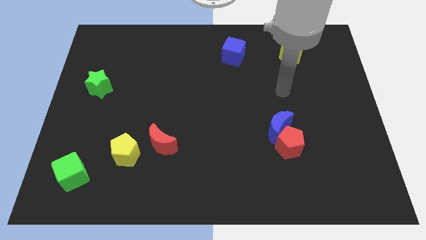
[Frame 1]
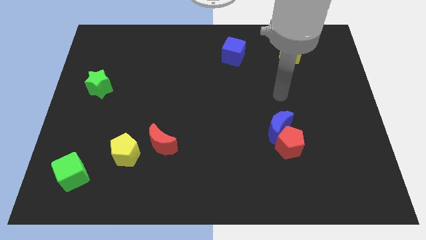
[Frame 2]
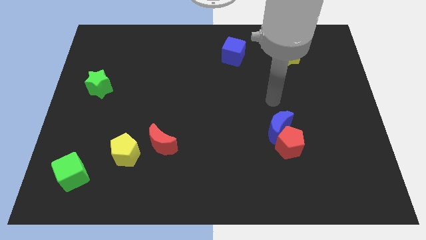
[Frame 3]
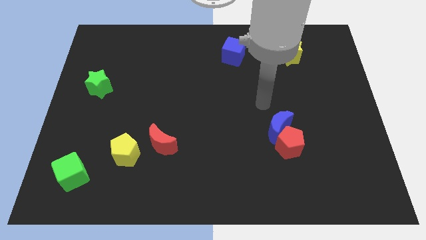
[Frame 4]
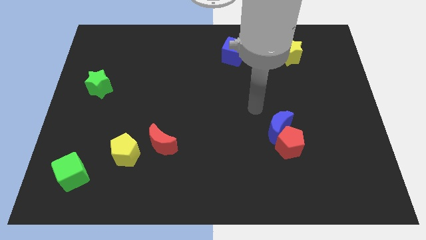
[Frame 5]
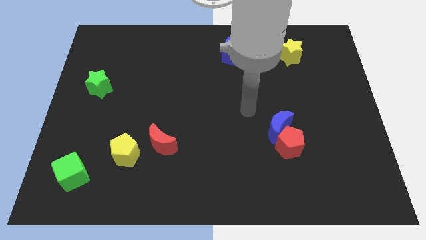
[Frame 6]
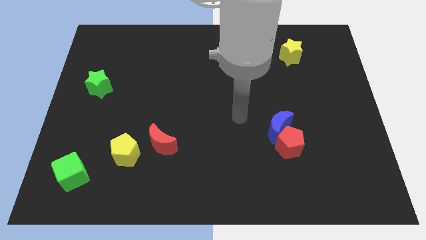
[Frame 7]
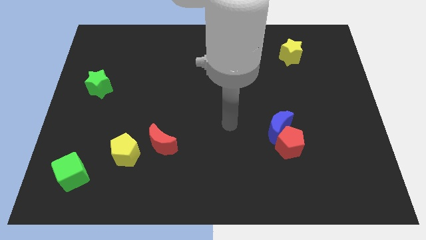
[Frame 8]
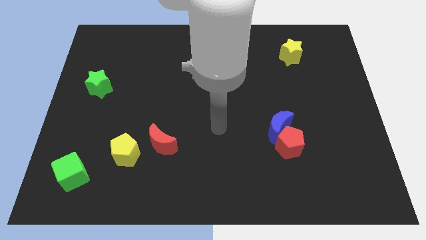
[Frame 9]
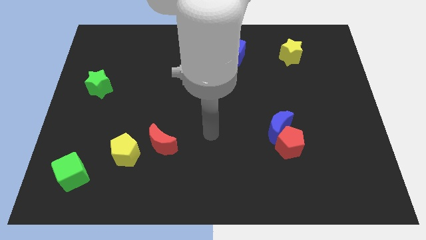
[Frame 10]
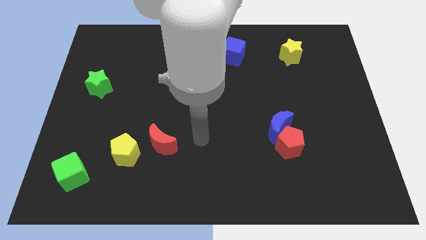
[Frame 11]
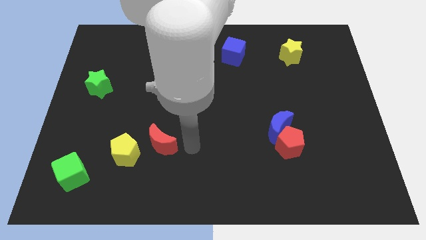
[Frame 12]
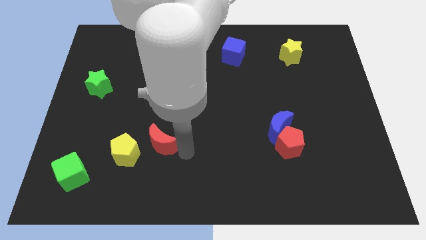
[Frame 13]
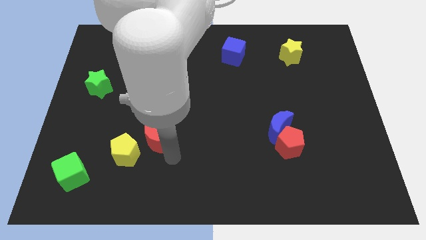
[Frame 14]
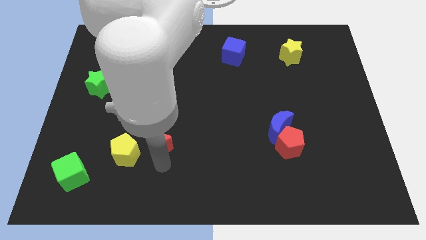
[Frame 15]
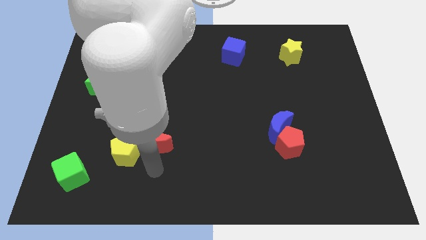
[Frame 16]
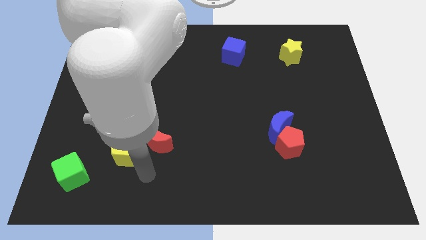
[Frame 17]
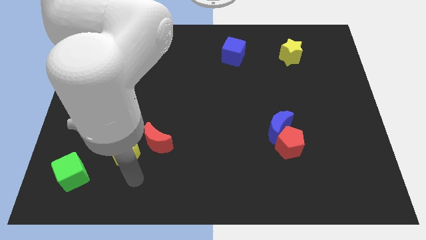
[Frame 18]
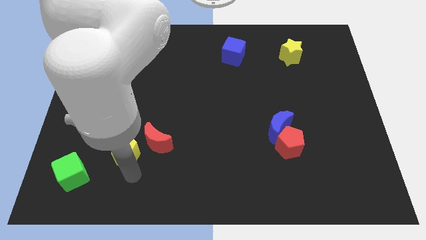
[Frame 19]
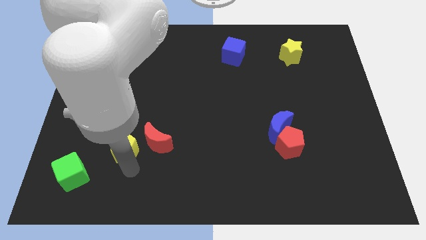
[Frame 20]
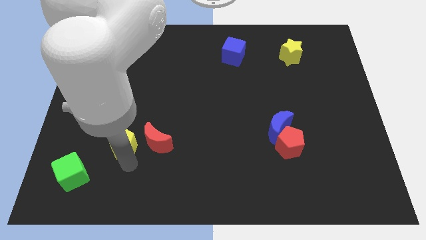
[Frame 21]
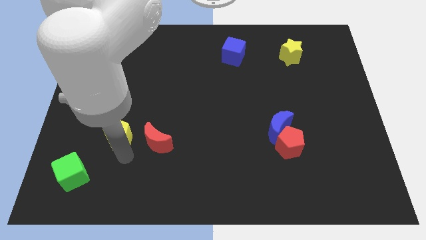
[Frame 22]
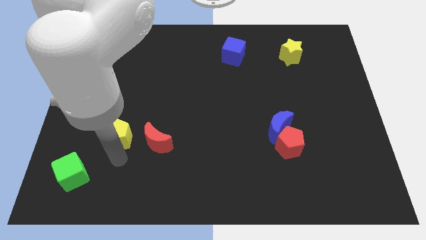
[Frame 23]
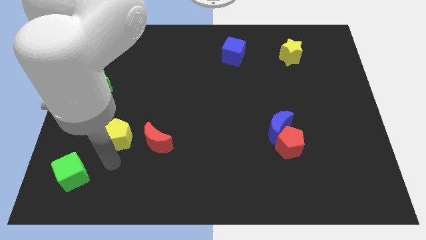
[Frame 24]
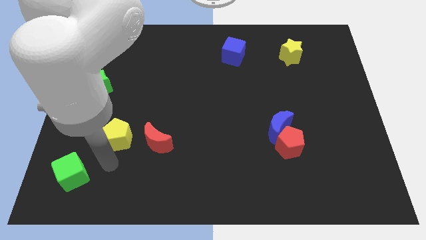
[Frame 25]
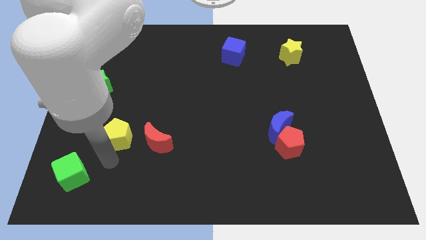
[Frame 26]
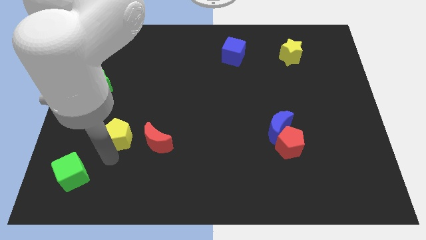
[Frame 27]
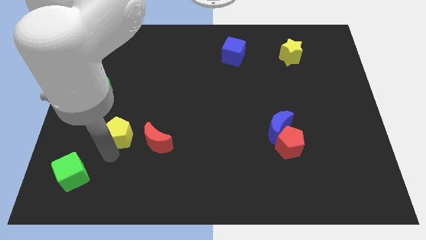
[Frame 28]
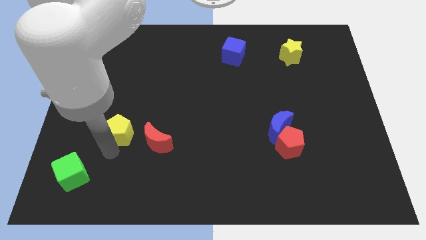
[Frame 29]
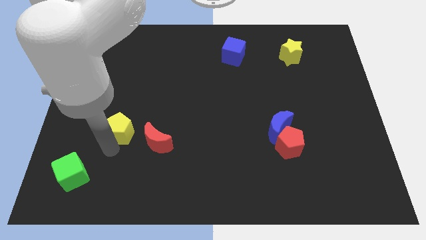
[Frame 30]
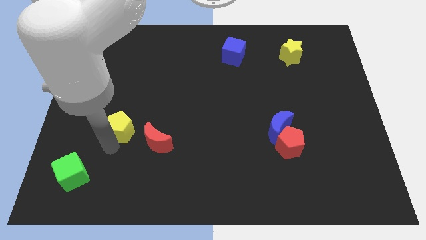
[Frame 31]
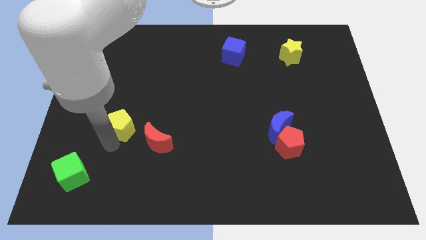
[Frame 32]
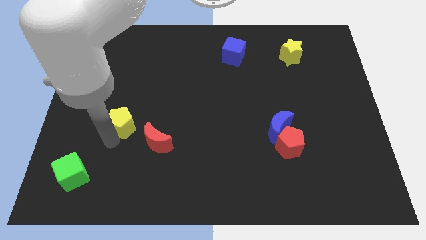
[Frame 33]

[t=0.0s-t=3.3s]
slide the yellow pentagon up slightly

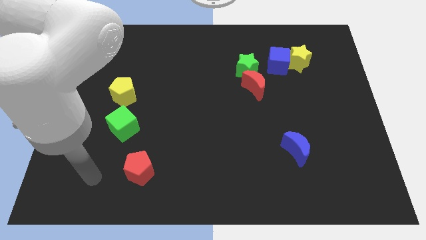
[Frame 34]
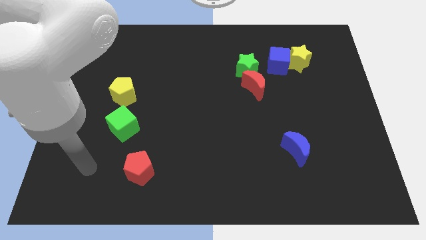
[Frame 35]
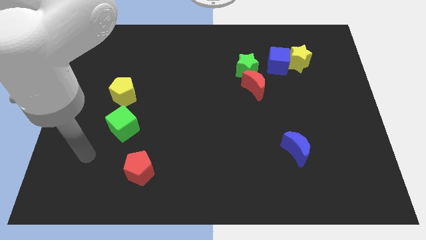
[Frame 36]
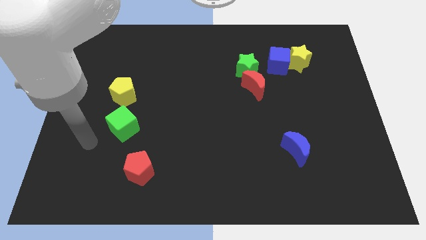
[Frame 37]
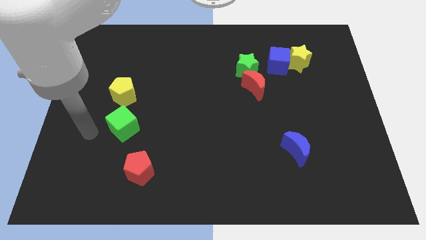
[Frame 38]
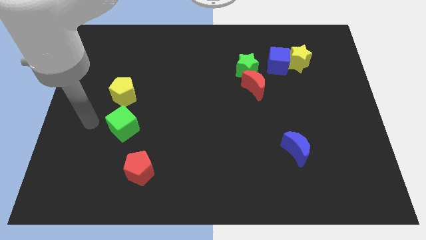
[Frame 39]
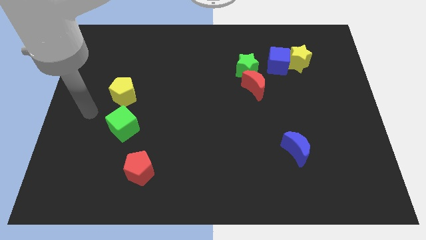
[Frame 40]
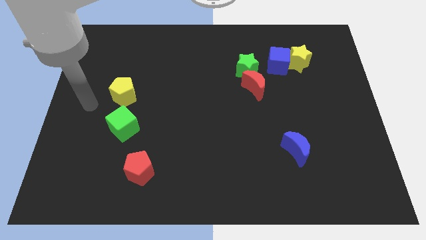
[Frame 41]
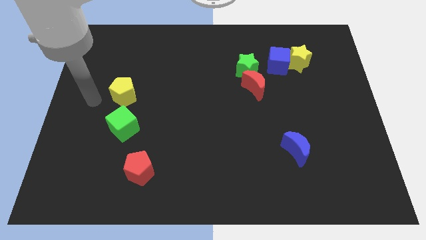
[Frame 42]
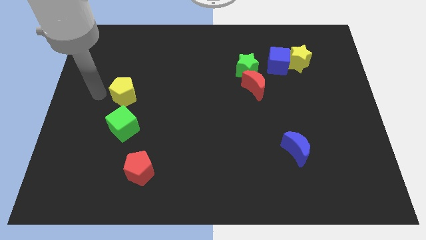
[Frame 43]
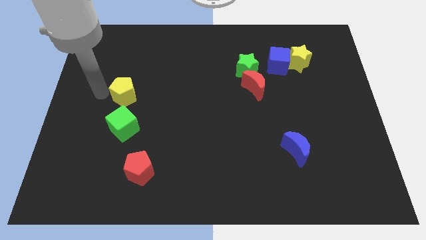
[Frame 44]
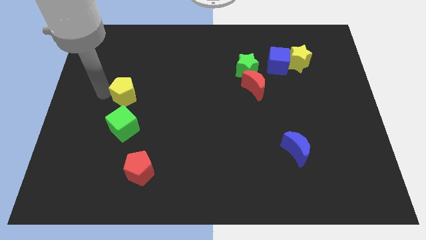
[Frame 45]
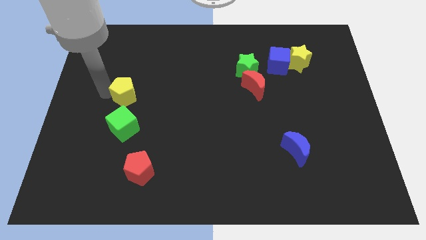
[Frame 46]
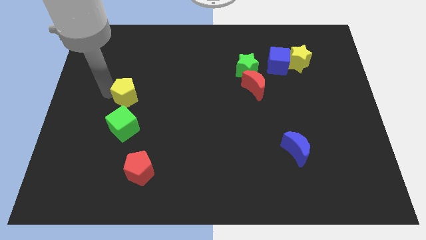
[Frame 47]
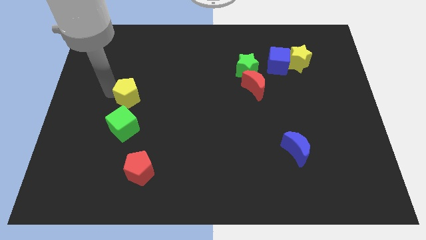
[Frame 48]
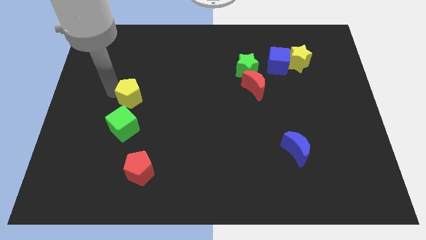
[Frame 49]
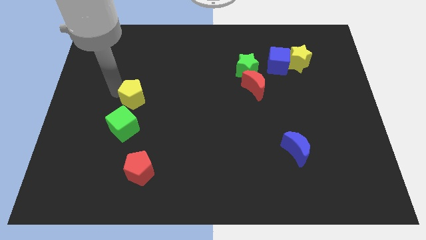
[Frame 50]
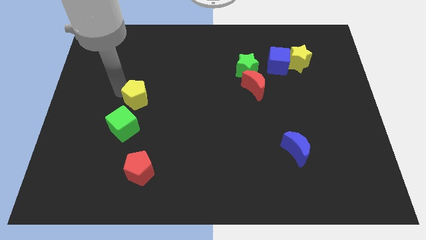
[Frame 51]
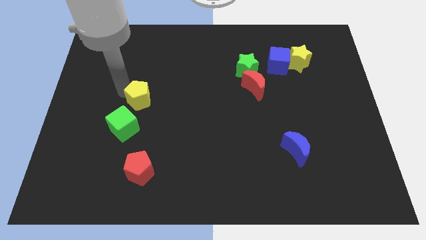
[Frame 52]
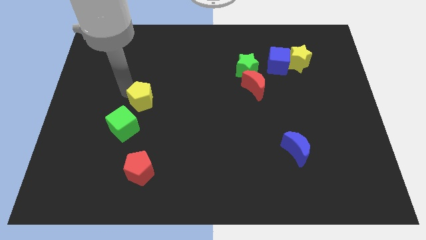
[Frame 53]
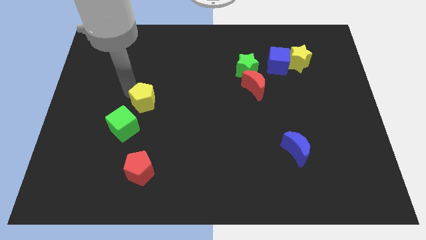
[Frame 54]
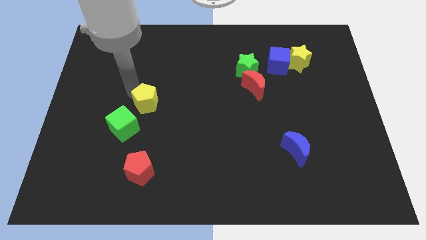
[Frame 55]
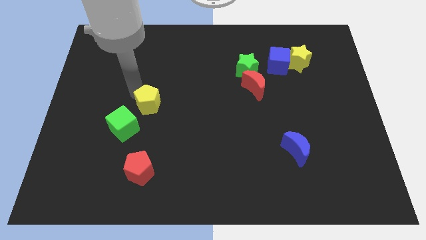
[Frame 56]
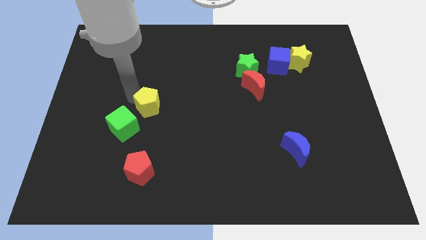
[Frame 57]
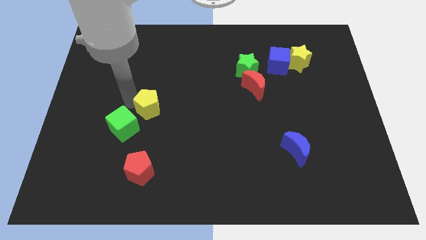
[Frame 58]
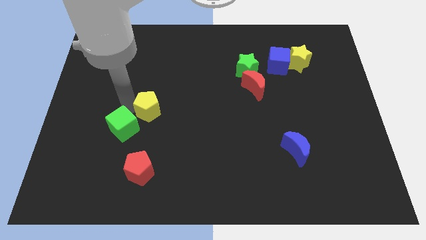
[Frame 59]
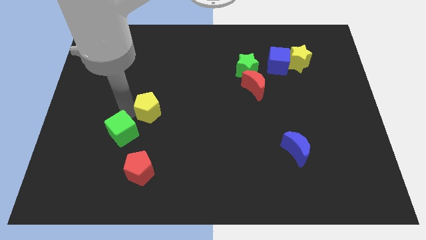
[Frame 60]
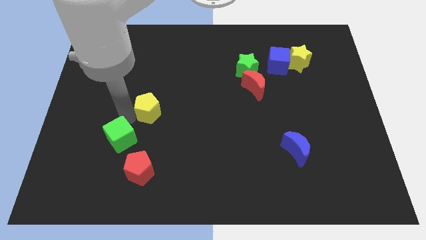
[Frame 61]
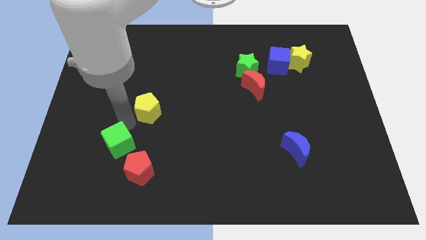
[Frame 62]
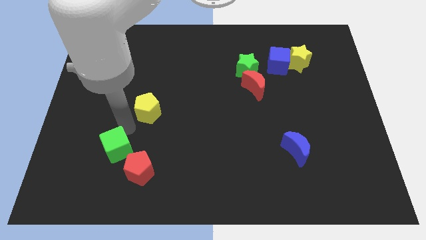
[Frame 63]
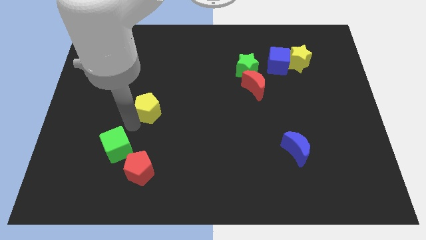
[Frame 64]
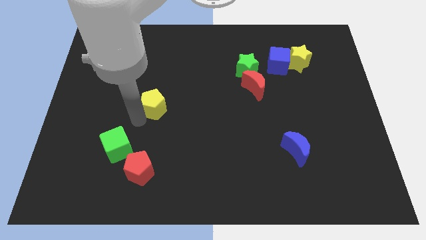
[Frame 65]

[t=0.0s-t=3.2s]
move the yellow pentagon somewhat to the right

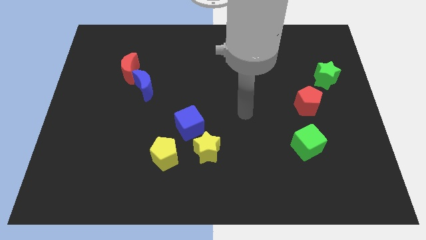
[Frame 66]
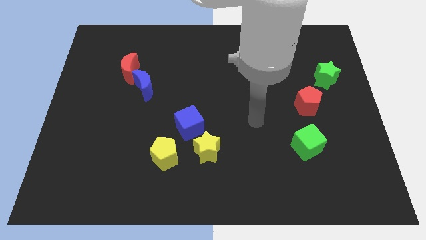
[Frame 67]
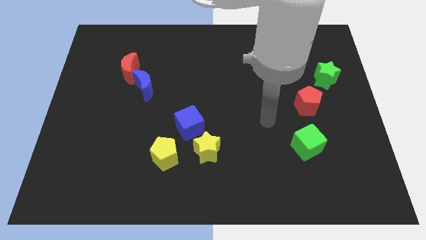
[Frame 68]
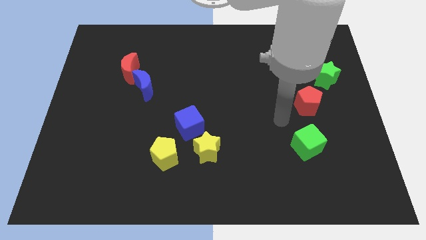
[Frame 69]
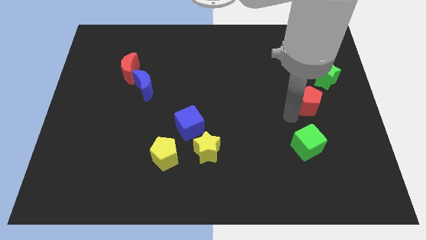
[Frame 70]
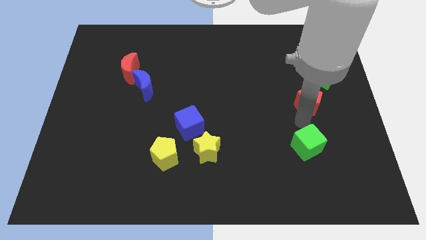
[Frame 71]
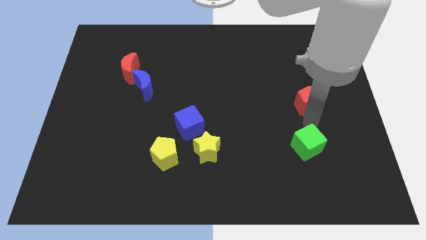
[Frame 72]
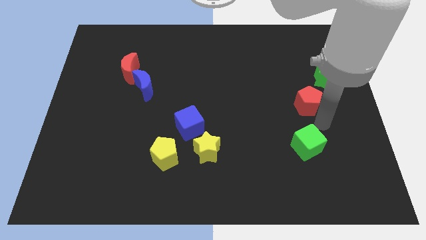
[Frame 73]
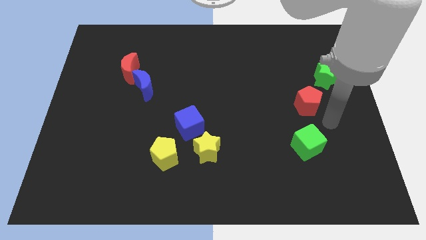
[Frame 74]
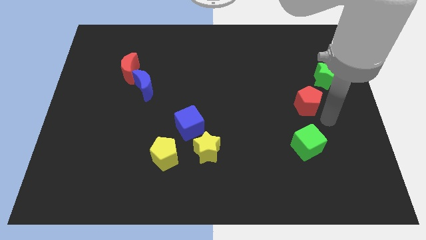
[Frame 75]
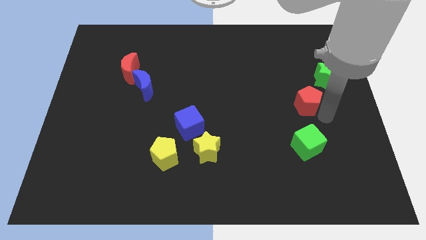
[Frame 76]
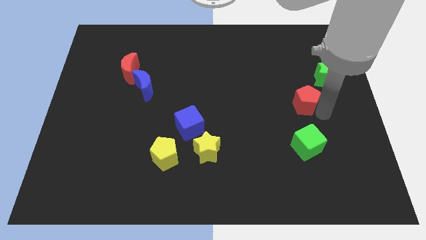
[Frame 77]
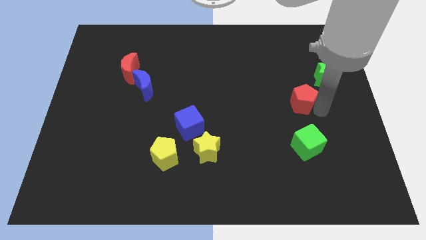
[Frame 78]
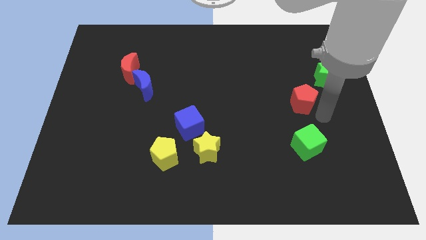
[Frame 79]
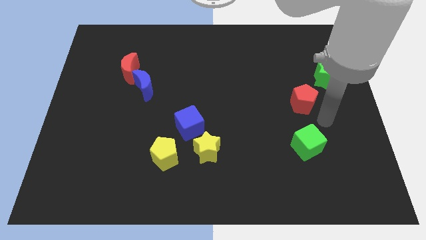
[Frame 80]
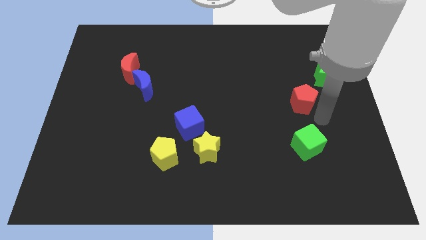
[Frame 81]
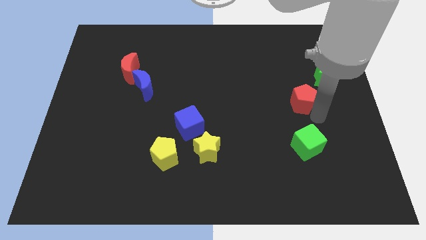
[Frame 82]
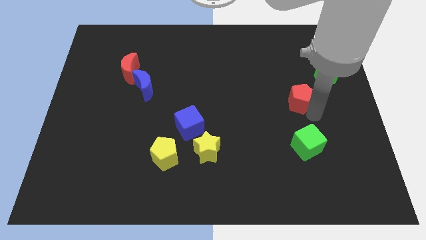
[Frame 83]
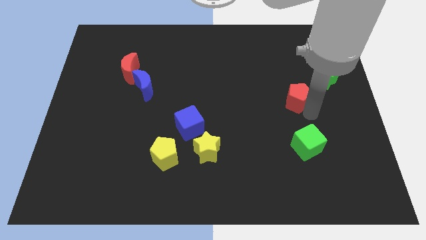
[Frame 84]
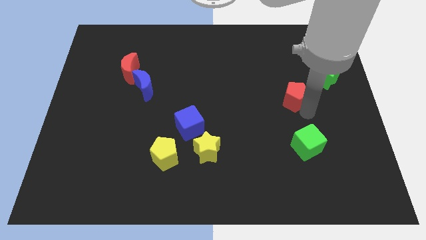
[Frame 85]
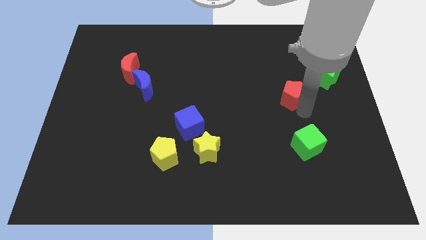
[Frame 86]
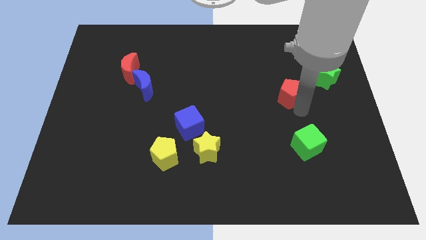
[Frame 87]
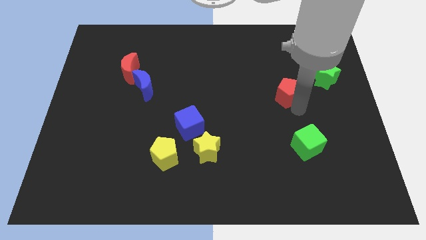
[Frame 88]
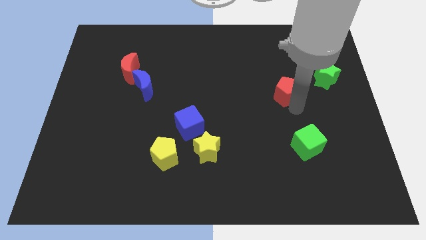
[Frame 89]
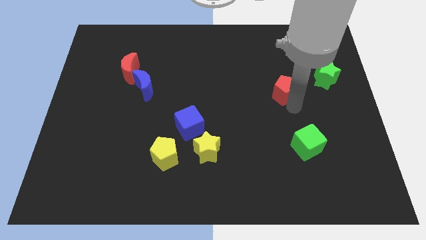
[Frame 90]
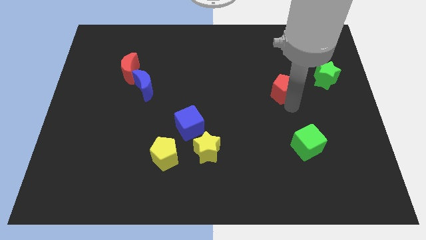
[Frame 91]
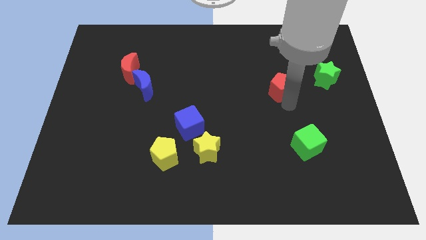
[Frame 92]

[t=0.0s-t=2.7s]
slightly push the red pentagon up and then to the left
